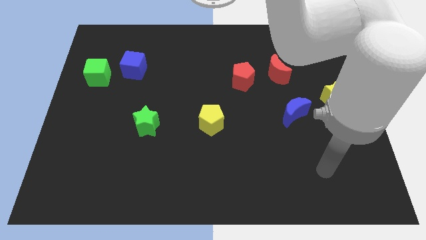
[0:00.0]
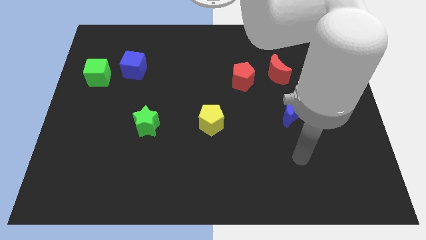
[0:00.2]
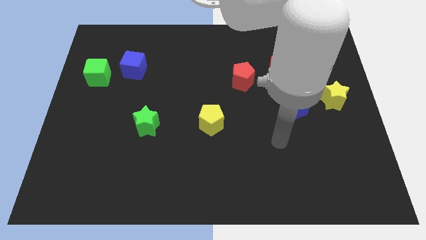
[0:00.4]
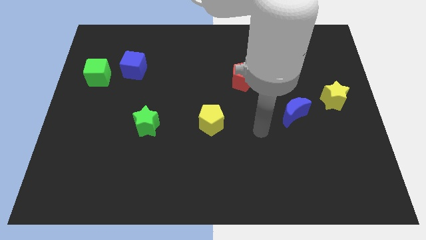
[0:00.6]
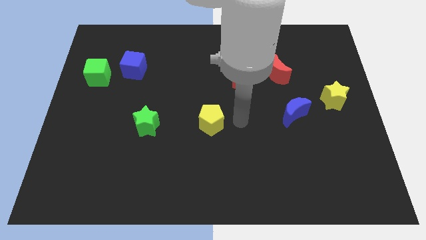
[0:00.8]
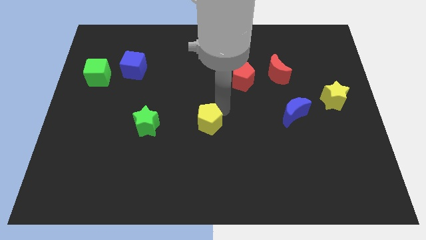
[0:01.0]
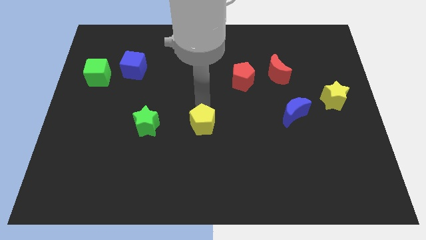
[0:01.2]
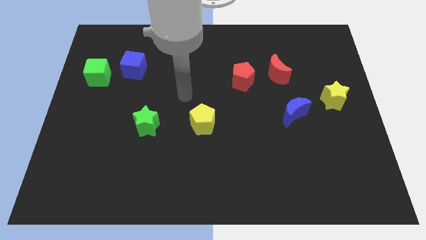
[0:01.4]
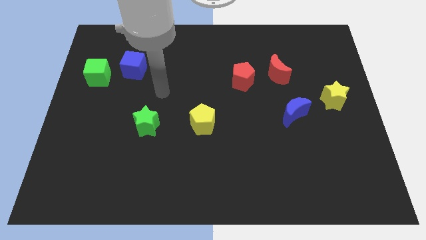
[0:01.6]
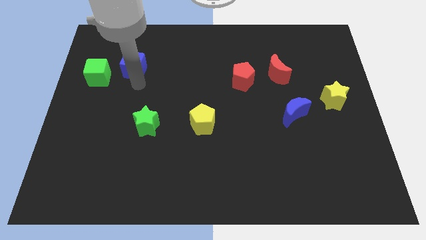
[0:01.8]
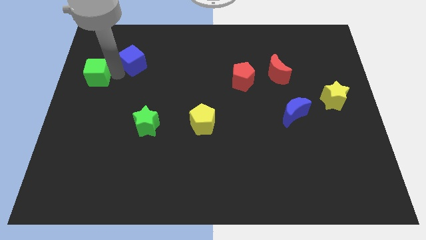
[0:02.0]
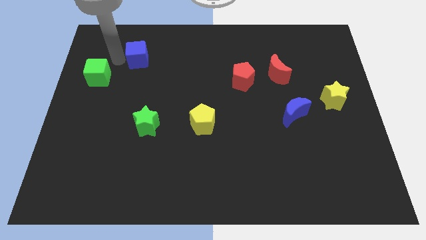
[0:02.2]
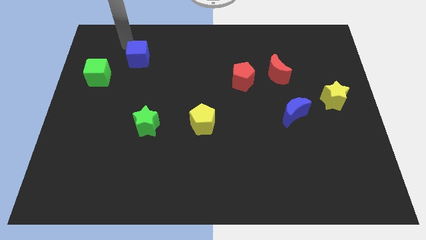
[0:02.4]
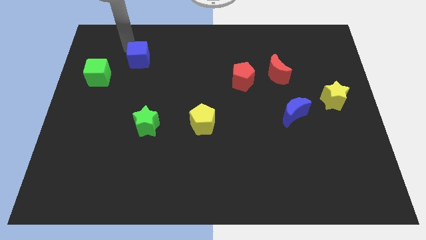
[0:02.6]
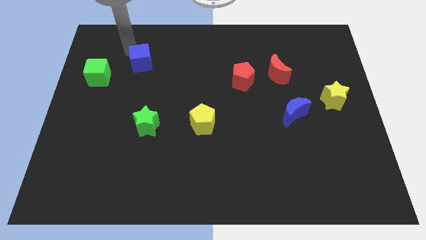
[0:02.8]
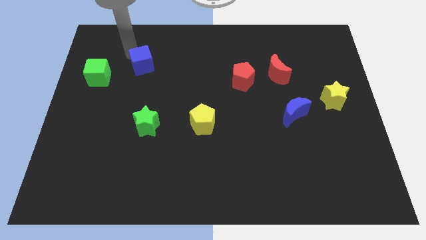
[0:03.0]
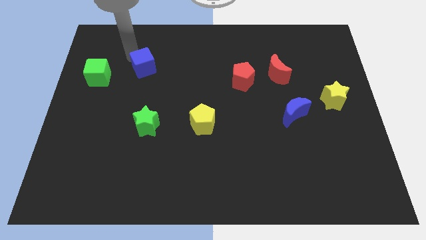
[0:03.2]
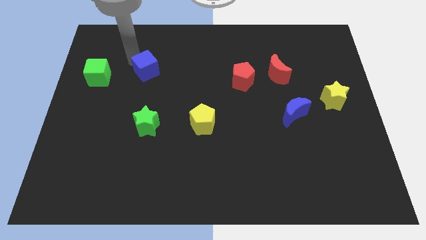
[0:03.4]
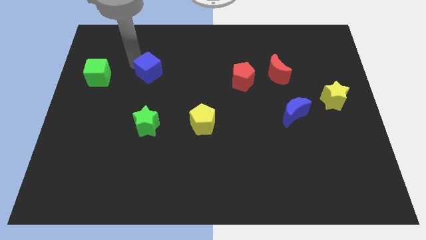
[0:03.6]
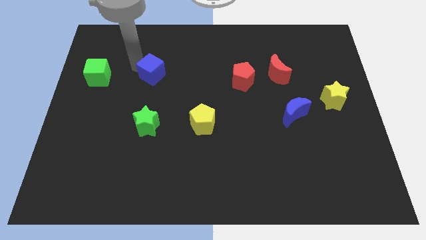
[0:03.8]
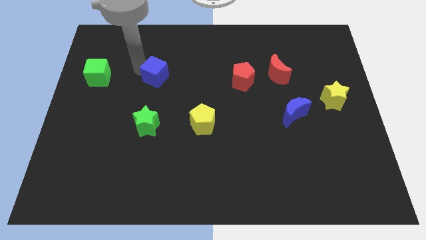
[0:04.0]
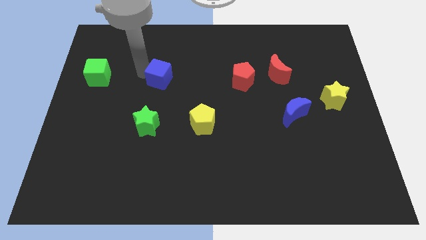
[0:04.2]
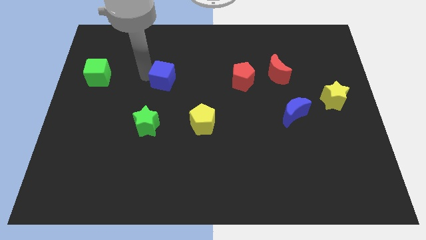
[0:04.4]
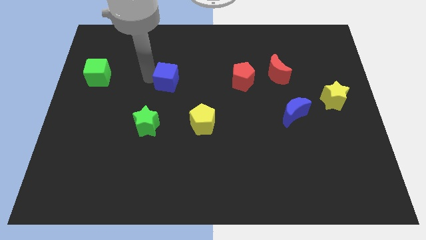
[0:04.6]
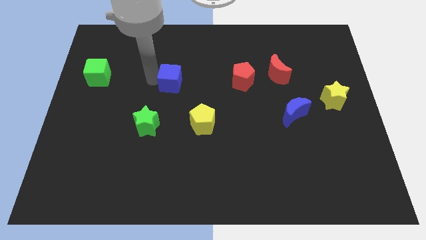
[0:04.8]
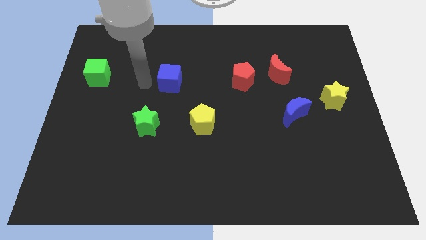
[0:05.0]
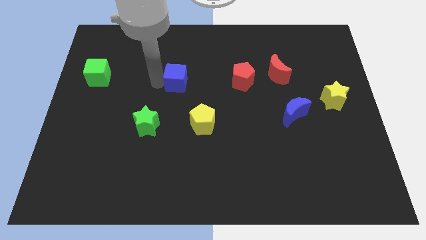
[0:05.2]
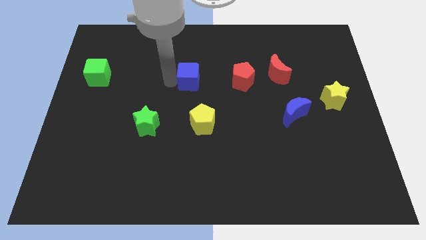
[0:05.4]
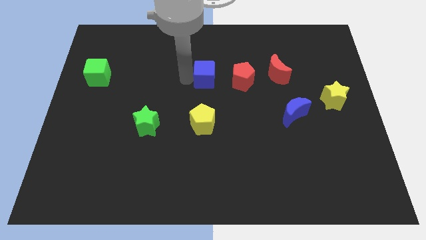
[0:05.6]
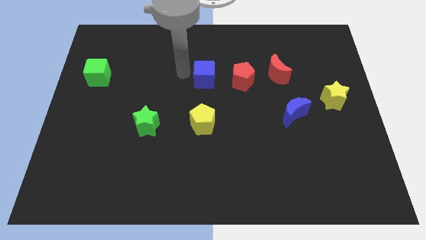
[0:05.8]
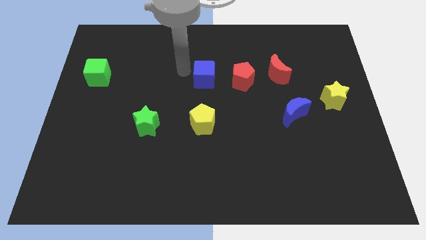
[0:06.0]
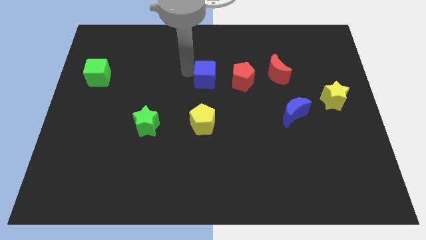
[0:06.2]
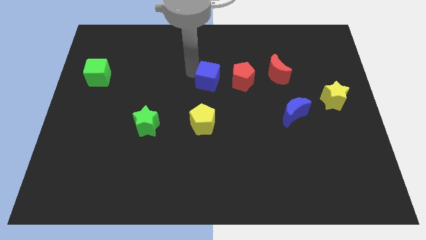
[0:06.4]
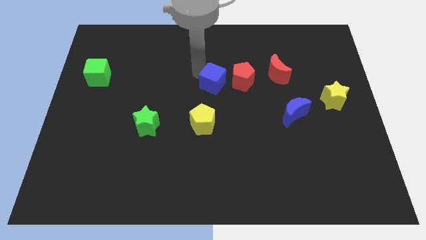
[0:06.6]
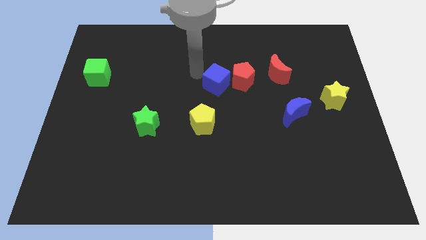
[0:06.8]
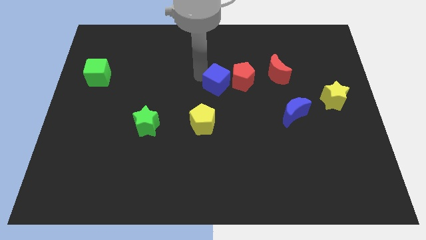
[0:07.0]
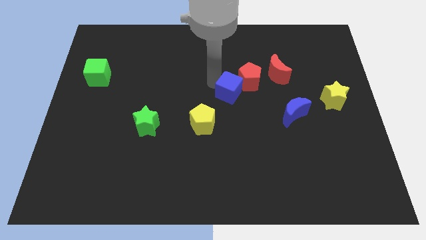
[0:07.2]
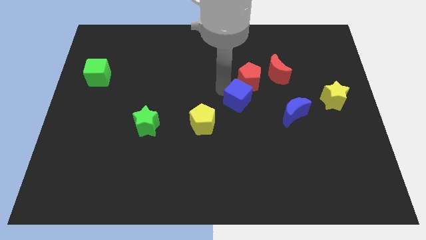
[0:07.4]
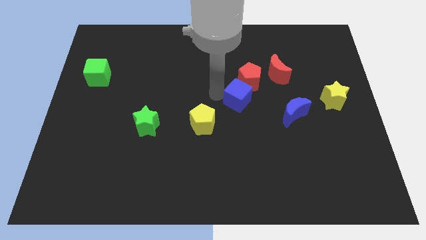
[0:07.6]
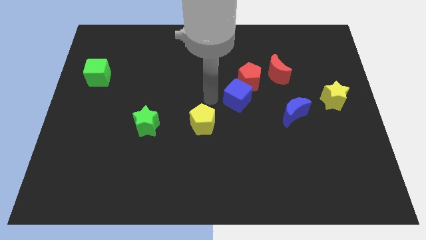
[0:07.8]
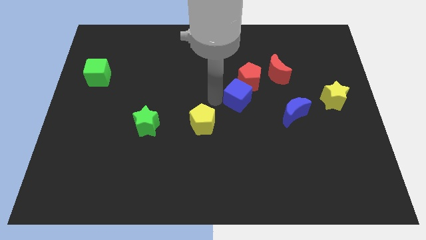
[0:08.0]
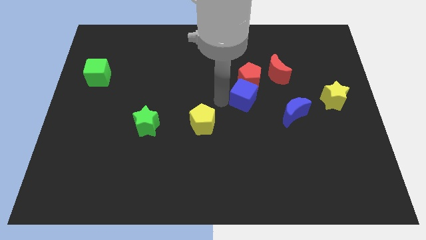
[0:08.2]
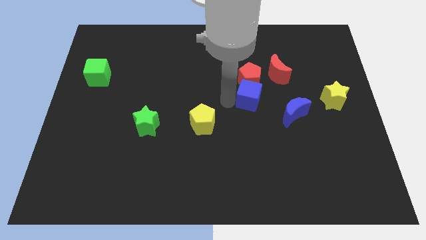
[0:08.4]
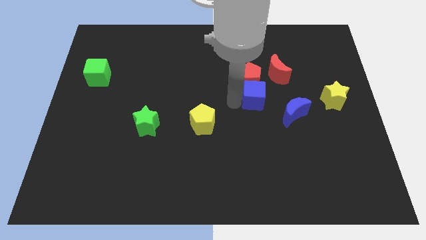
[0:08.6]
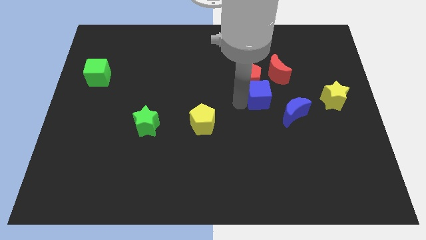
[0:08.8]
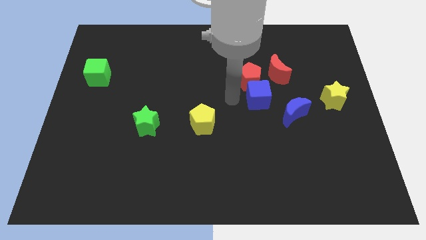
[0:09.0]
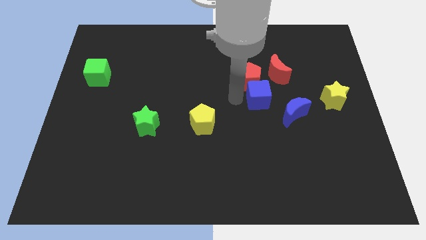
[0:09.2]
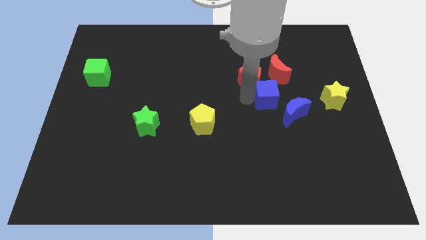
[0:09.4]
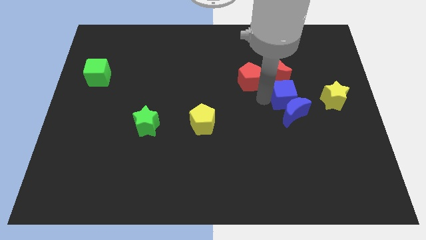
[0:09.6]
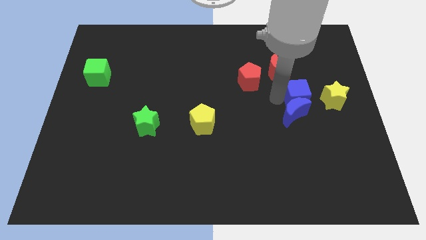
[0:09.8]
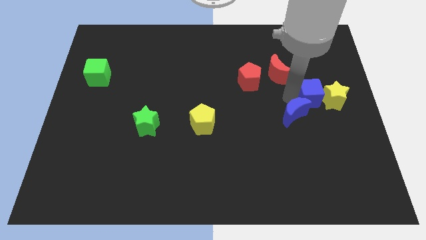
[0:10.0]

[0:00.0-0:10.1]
put the blue cube close to the yellow star

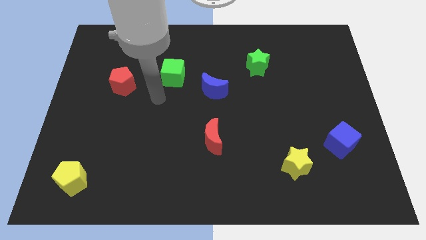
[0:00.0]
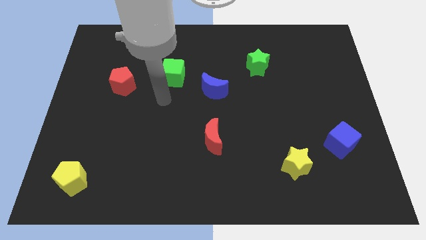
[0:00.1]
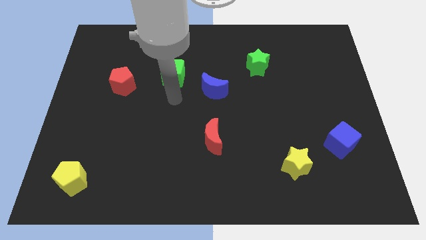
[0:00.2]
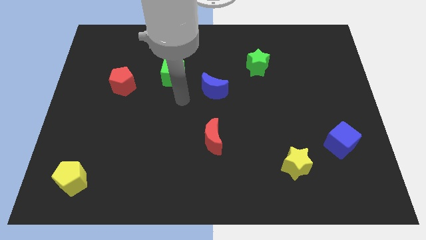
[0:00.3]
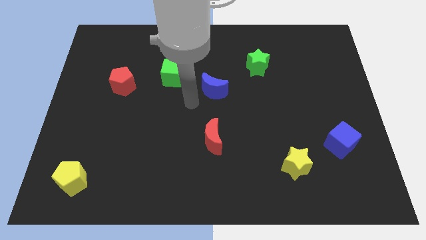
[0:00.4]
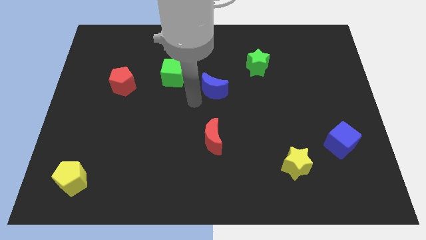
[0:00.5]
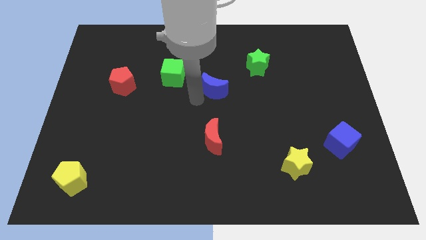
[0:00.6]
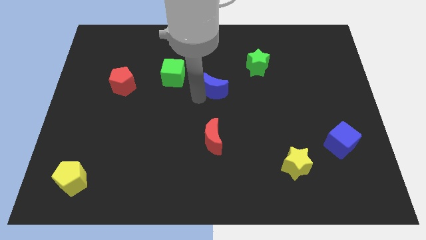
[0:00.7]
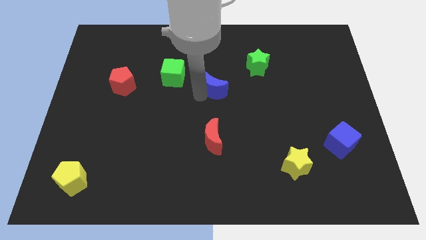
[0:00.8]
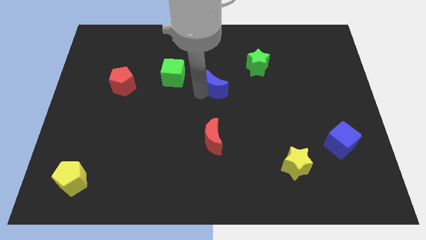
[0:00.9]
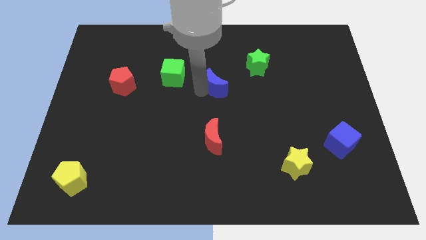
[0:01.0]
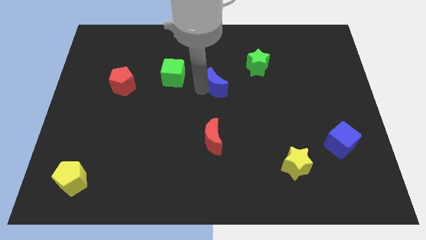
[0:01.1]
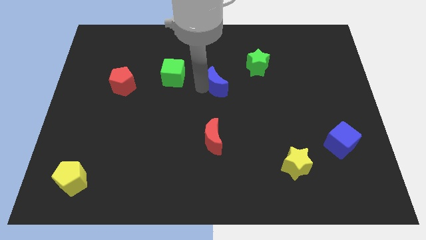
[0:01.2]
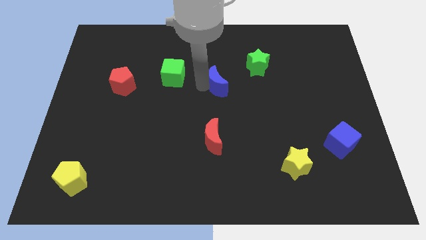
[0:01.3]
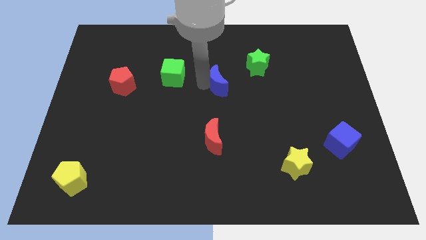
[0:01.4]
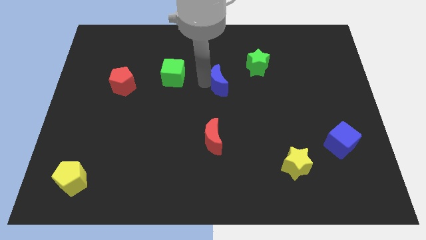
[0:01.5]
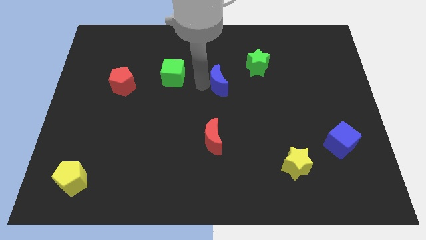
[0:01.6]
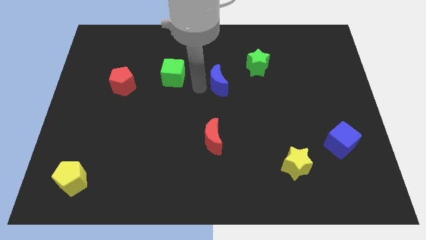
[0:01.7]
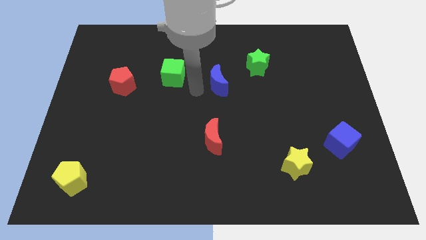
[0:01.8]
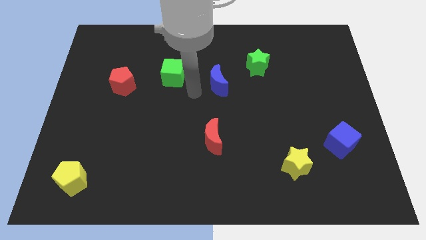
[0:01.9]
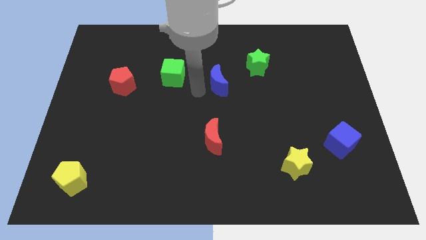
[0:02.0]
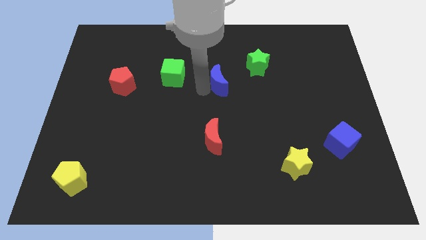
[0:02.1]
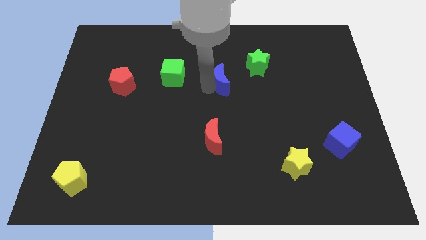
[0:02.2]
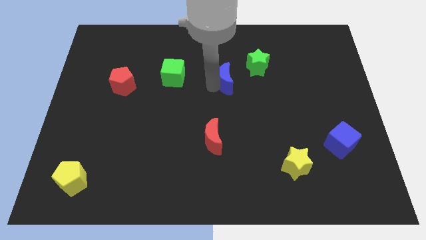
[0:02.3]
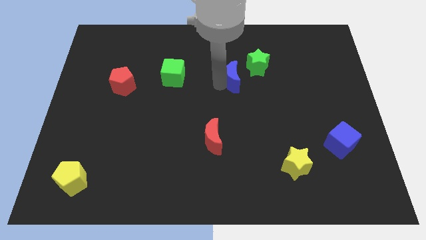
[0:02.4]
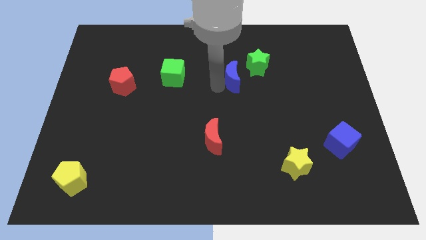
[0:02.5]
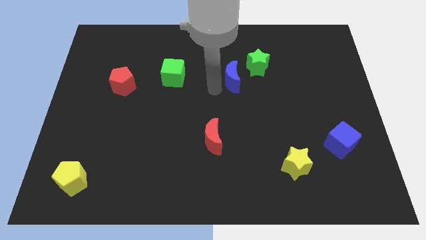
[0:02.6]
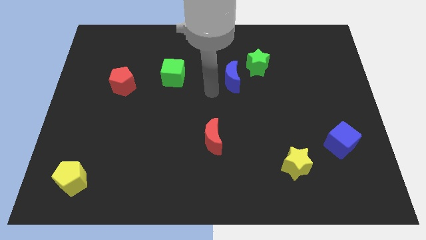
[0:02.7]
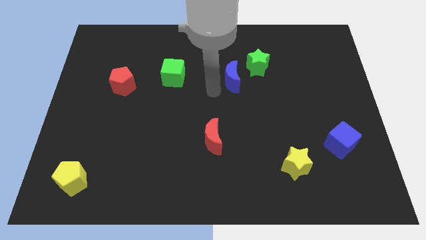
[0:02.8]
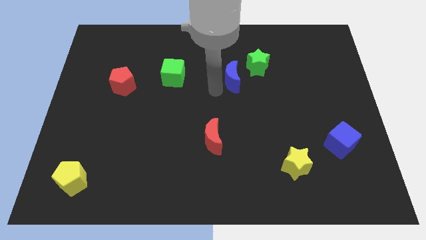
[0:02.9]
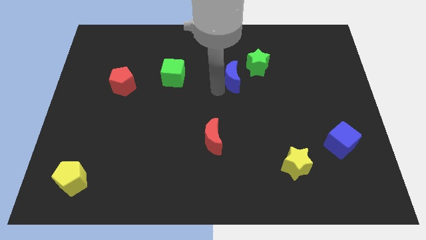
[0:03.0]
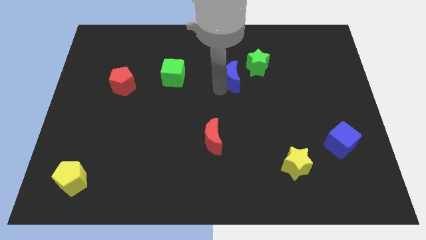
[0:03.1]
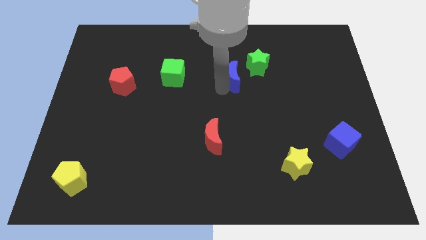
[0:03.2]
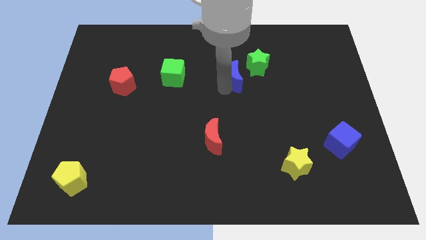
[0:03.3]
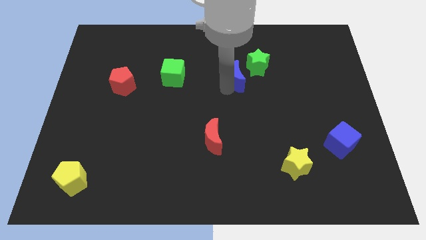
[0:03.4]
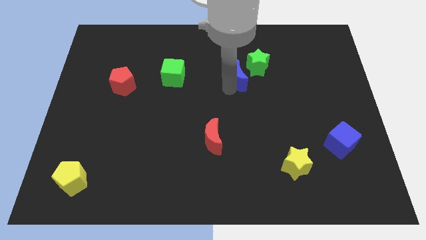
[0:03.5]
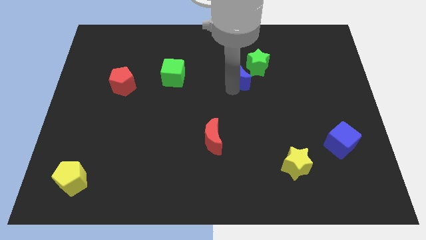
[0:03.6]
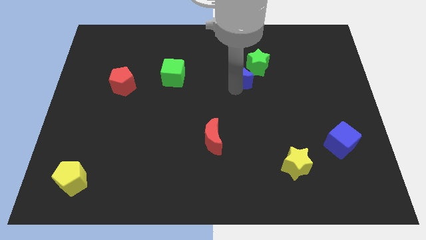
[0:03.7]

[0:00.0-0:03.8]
slide the blue moon to the green star
